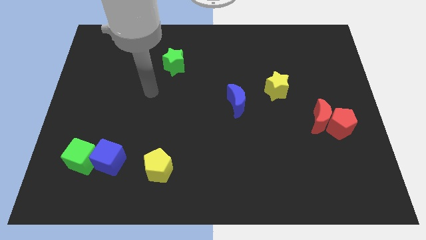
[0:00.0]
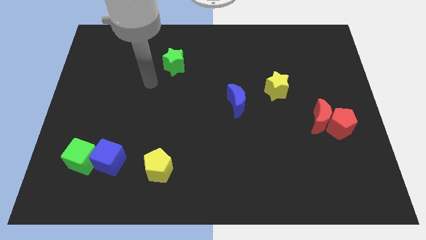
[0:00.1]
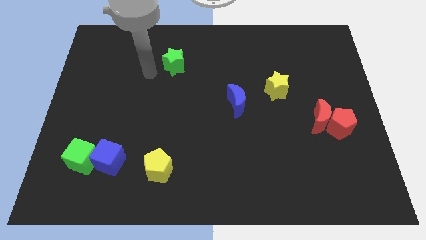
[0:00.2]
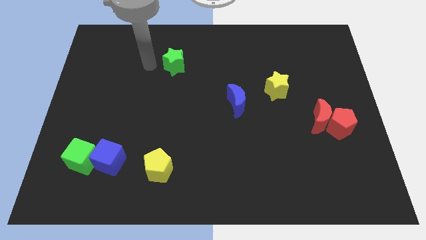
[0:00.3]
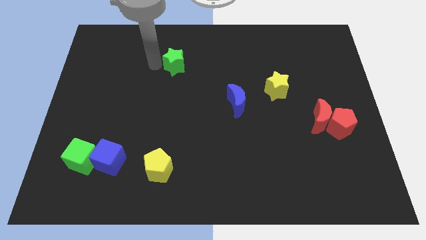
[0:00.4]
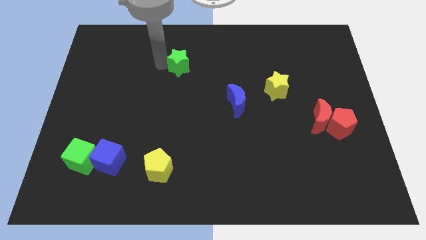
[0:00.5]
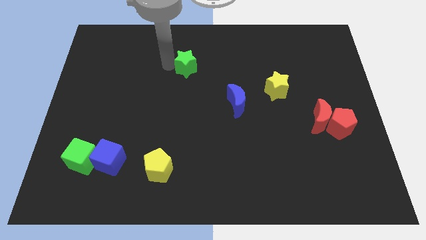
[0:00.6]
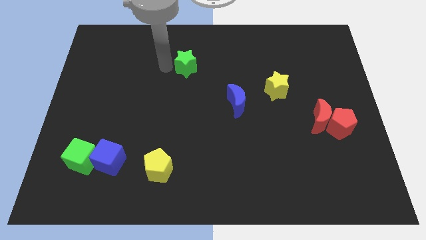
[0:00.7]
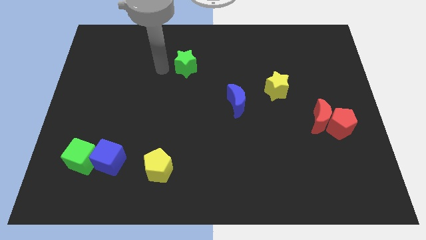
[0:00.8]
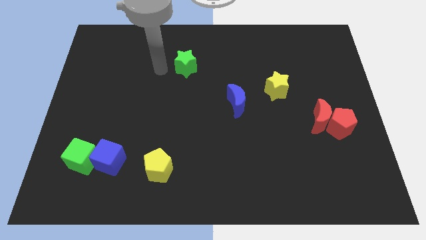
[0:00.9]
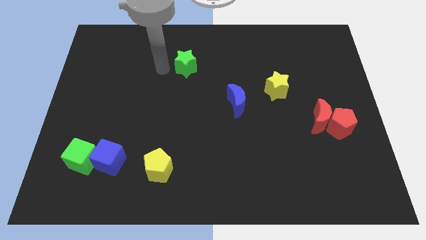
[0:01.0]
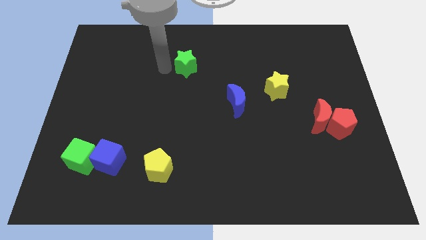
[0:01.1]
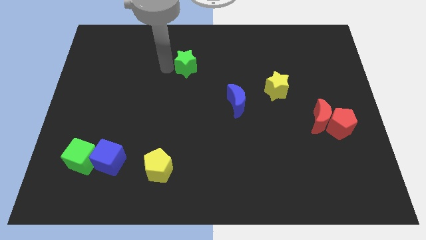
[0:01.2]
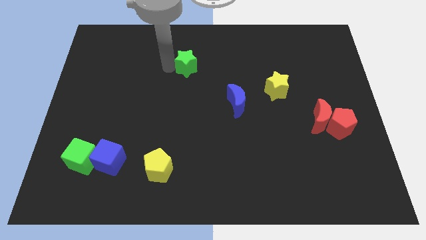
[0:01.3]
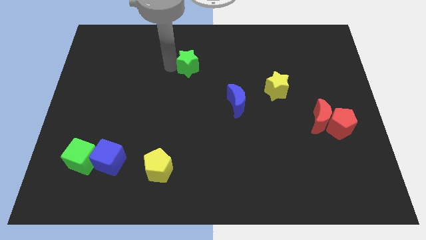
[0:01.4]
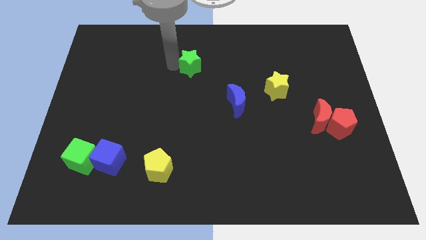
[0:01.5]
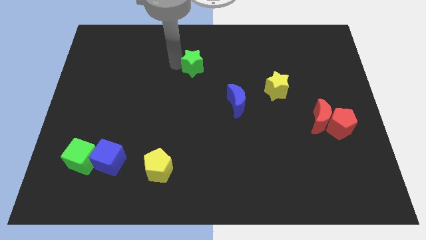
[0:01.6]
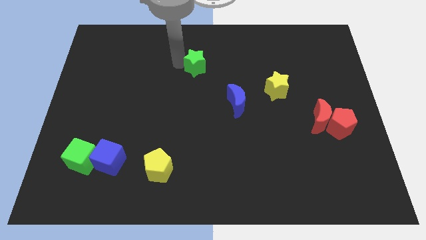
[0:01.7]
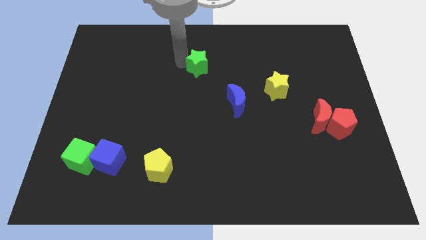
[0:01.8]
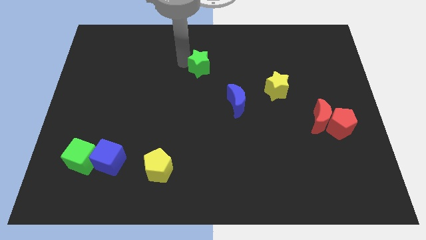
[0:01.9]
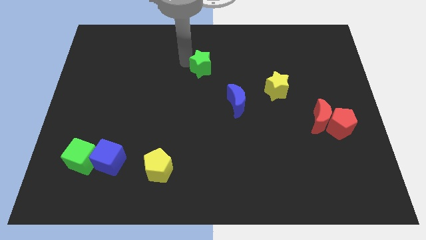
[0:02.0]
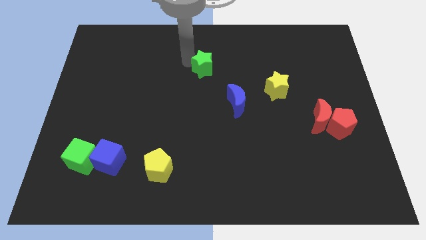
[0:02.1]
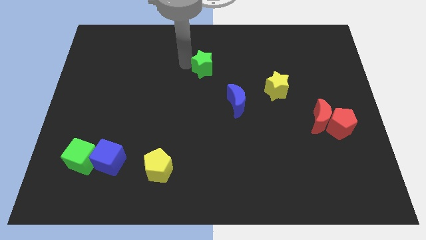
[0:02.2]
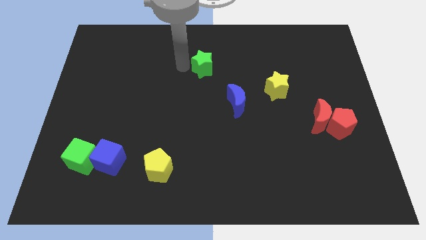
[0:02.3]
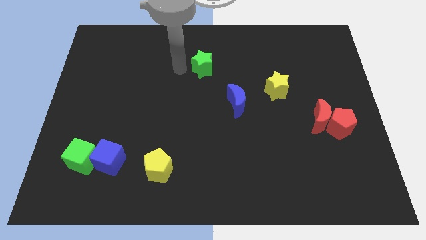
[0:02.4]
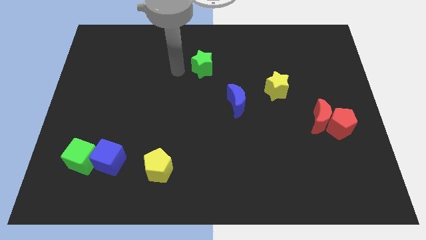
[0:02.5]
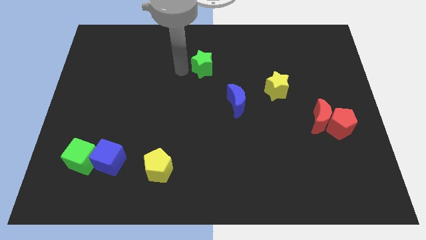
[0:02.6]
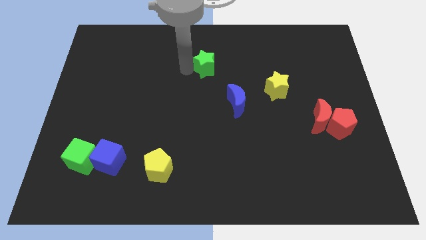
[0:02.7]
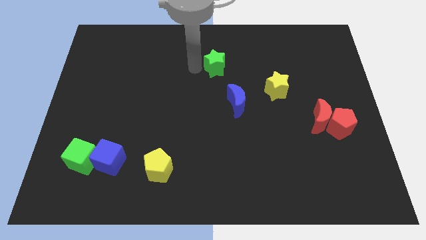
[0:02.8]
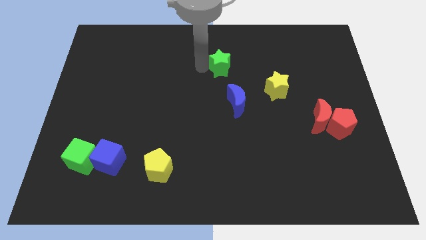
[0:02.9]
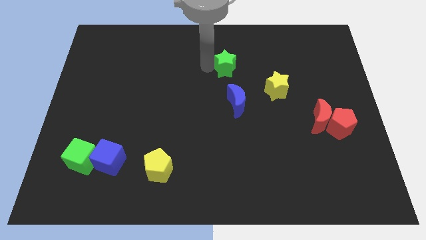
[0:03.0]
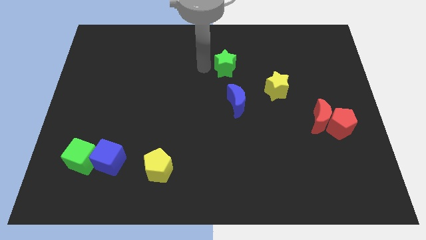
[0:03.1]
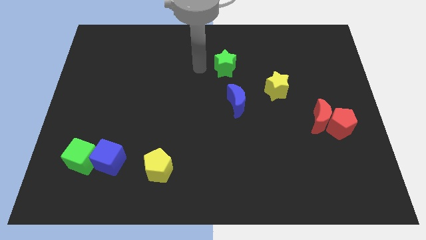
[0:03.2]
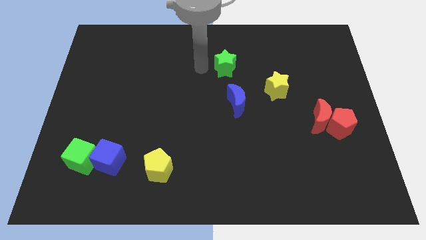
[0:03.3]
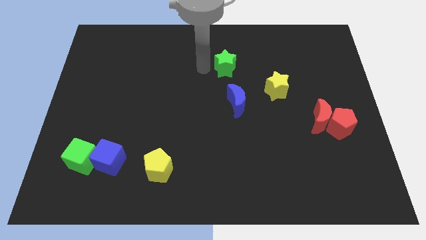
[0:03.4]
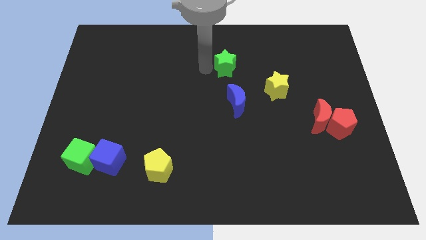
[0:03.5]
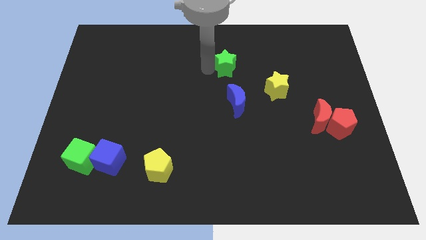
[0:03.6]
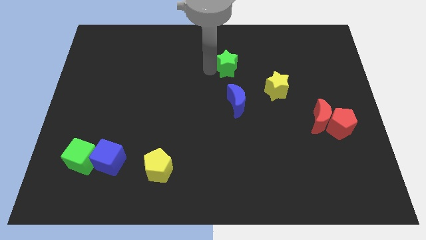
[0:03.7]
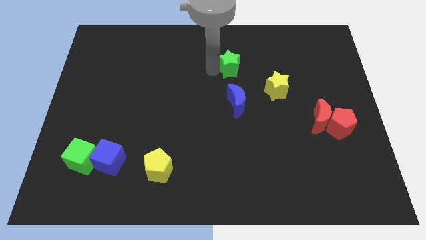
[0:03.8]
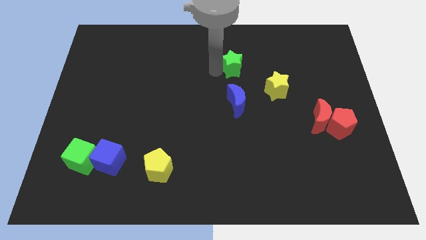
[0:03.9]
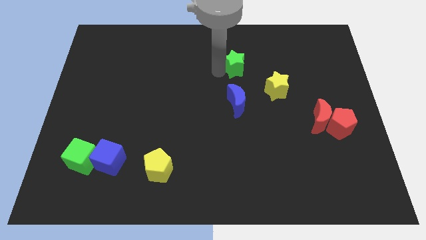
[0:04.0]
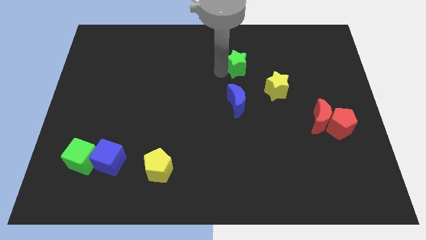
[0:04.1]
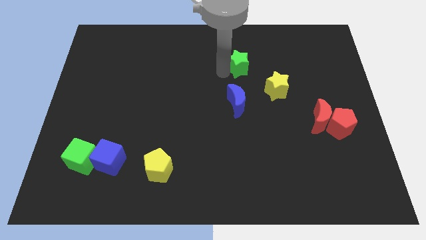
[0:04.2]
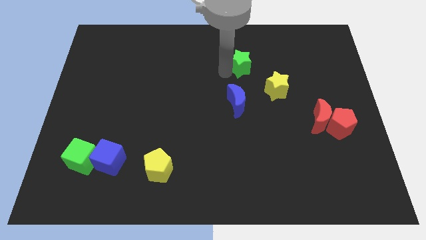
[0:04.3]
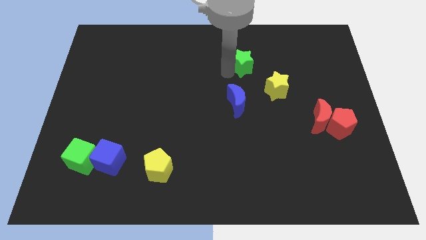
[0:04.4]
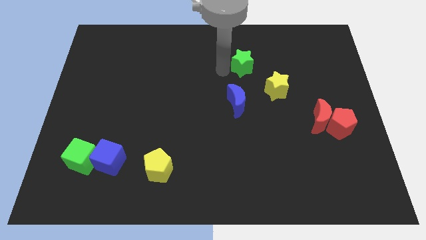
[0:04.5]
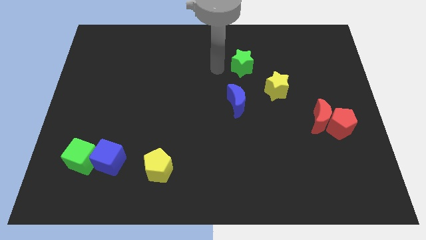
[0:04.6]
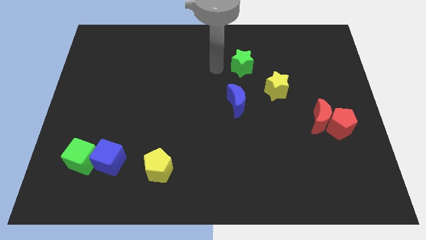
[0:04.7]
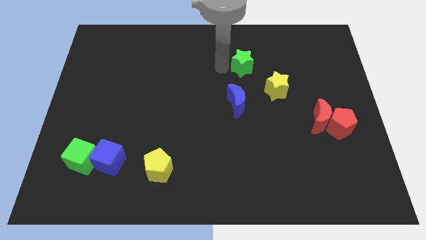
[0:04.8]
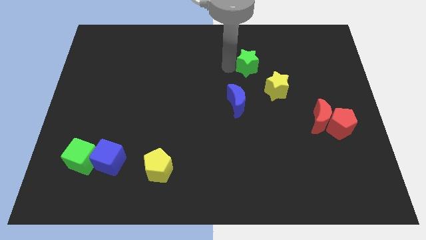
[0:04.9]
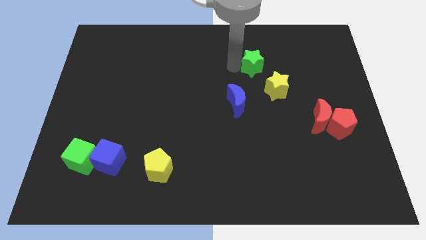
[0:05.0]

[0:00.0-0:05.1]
push the green star right

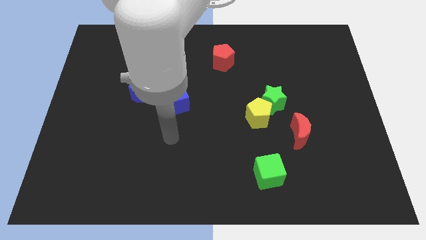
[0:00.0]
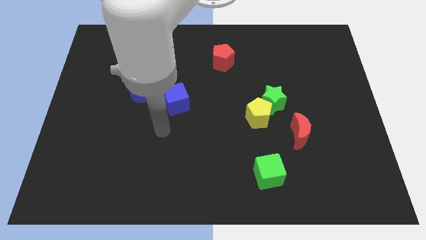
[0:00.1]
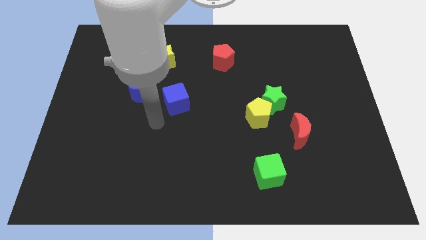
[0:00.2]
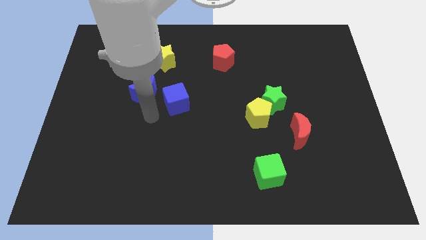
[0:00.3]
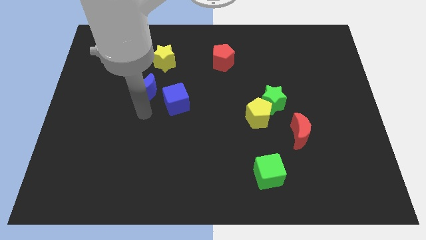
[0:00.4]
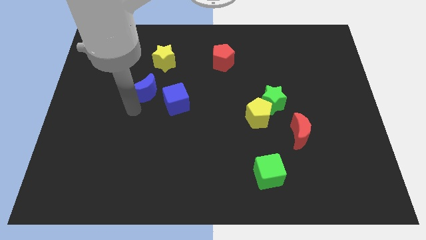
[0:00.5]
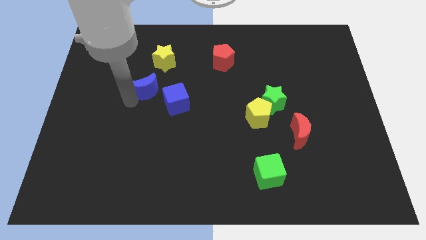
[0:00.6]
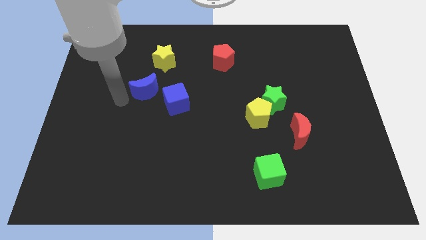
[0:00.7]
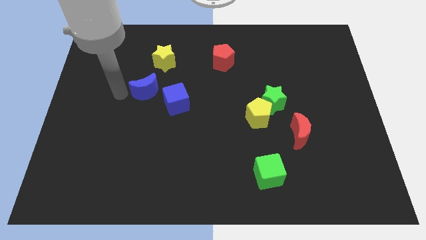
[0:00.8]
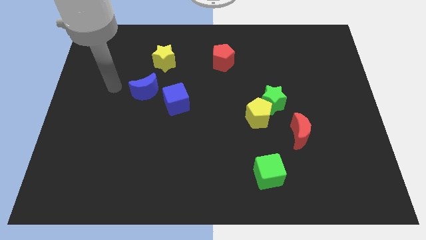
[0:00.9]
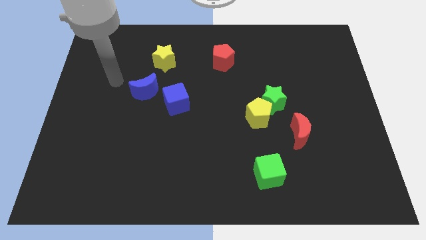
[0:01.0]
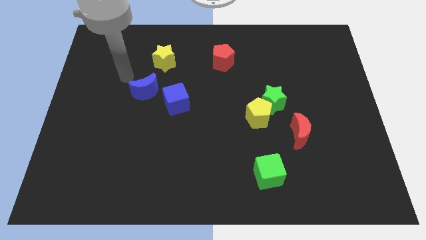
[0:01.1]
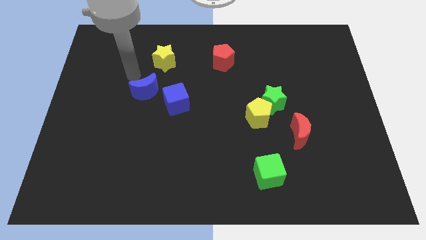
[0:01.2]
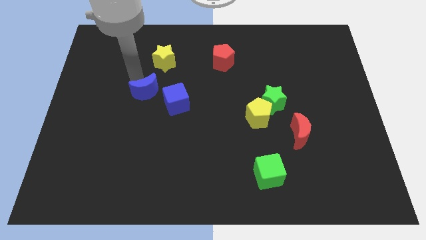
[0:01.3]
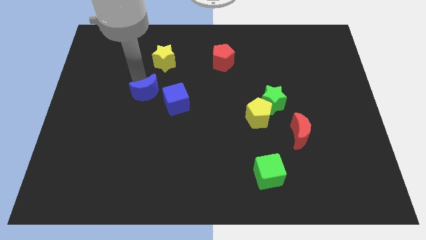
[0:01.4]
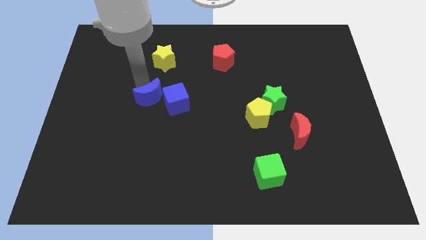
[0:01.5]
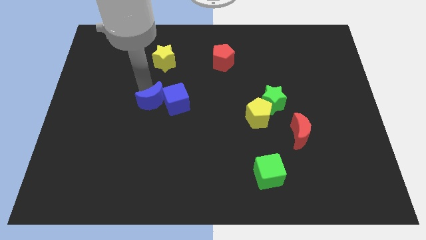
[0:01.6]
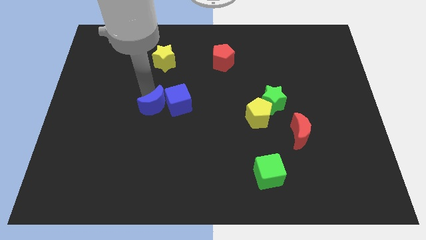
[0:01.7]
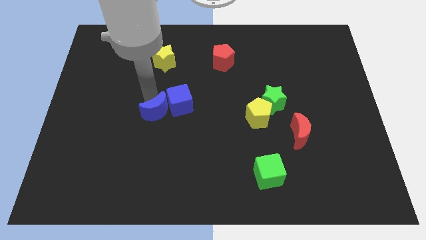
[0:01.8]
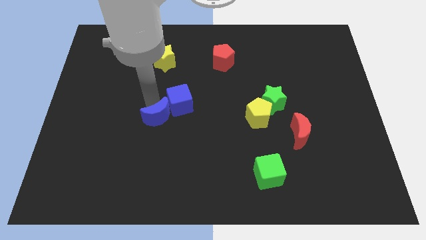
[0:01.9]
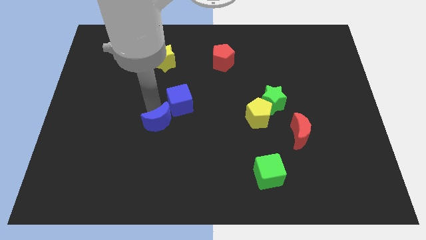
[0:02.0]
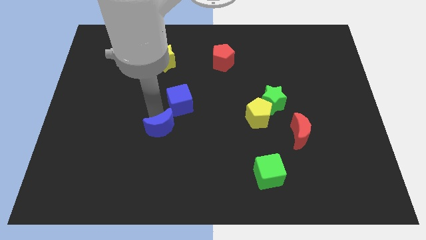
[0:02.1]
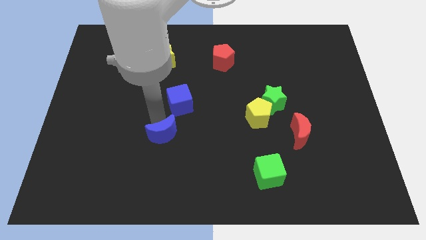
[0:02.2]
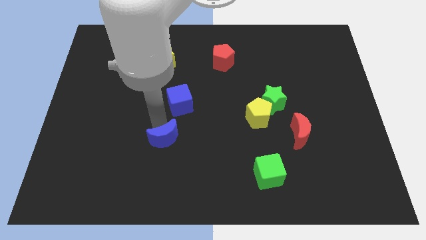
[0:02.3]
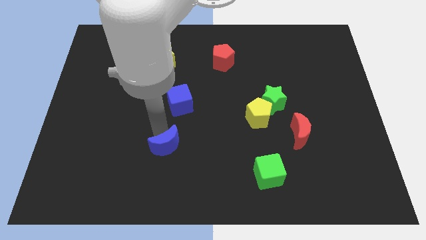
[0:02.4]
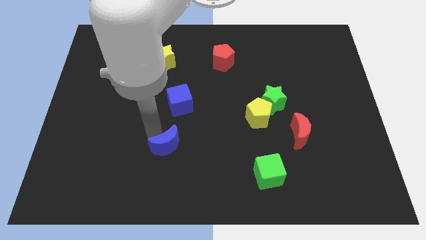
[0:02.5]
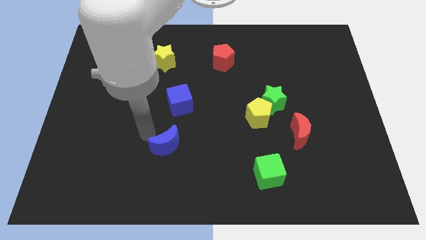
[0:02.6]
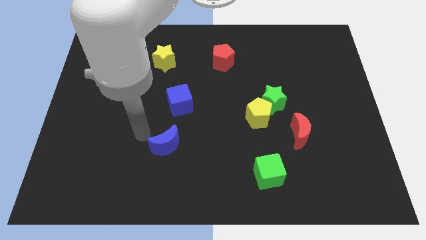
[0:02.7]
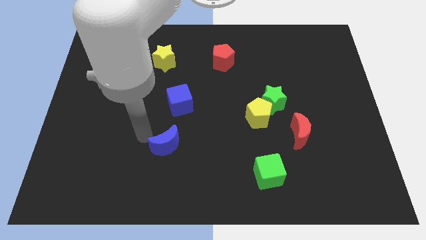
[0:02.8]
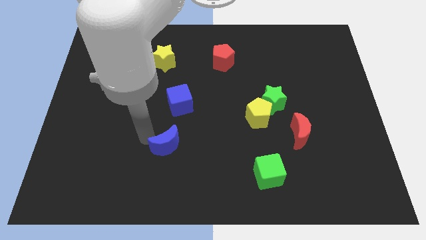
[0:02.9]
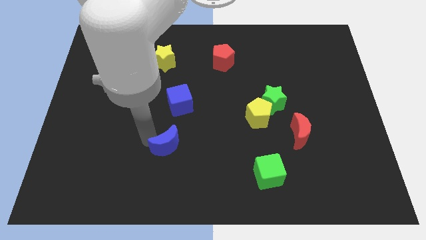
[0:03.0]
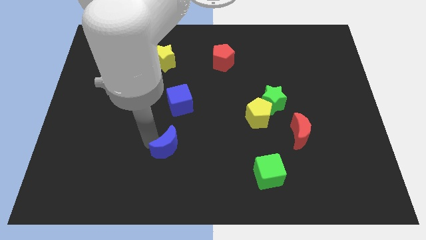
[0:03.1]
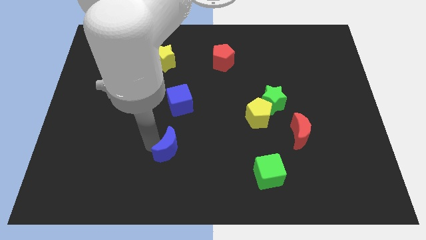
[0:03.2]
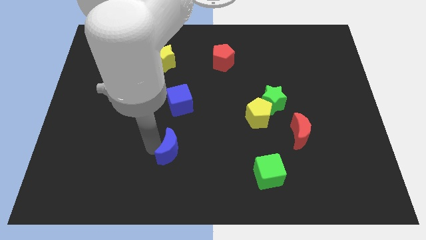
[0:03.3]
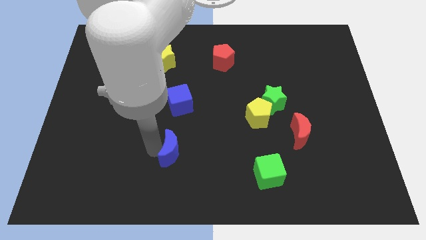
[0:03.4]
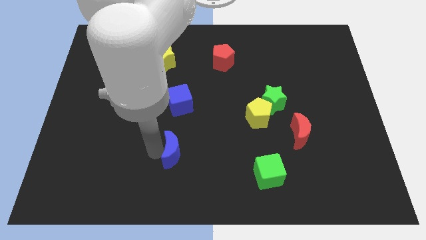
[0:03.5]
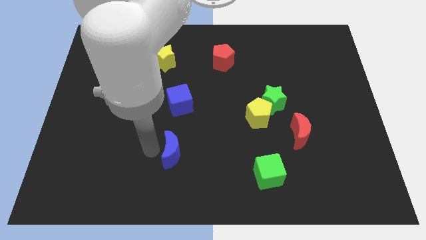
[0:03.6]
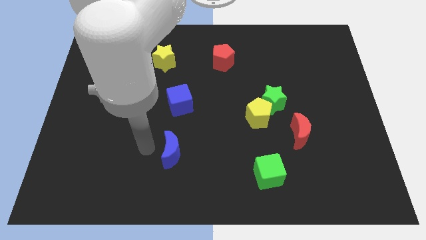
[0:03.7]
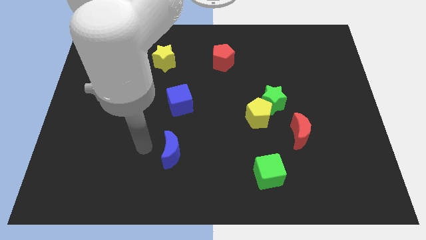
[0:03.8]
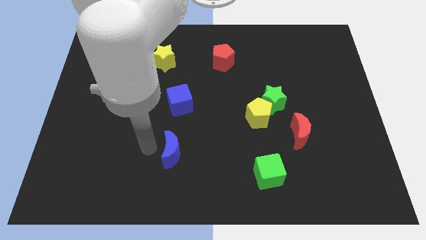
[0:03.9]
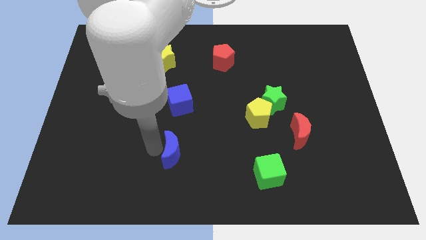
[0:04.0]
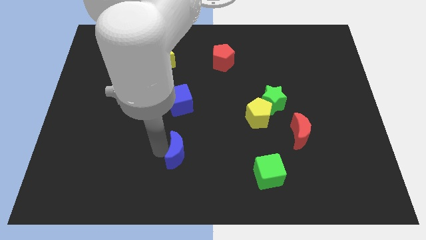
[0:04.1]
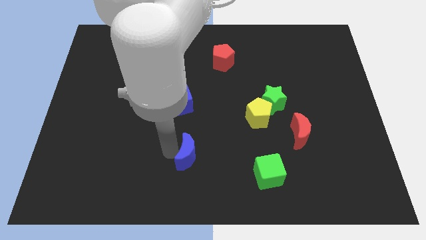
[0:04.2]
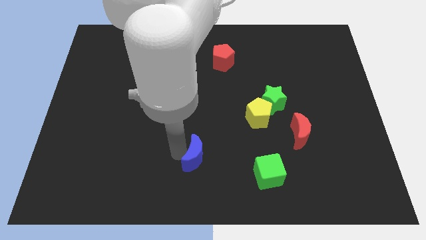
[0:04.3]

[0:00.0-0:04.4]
push the blue moon diagonally downwards and to the right
